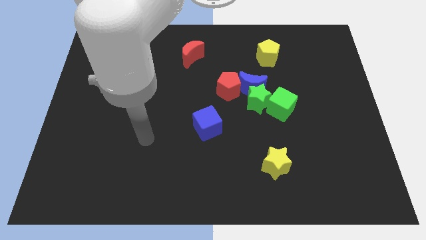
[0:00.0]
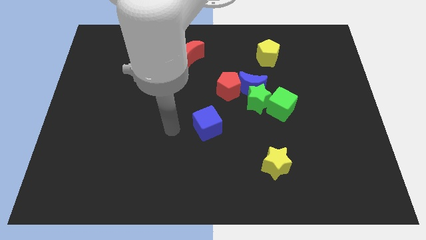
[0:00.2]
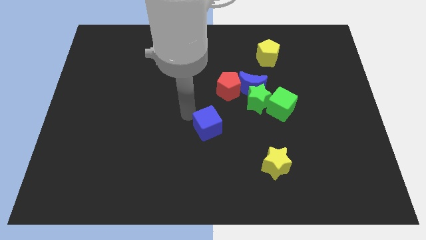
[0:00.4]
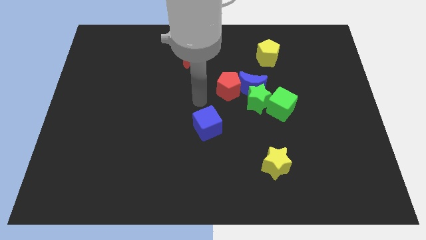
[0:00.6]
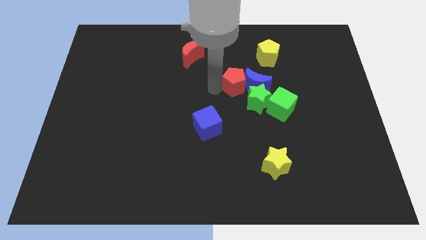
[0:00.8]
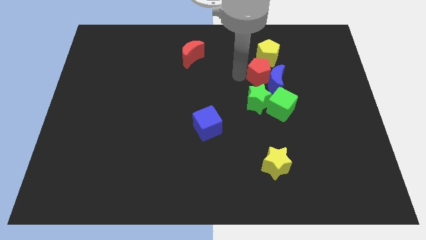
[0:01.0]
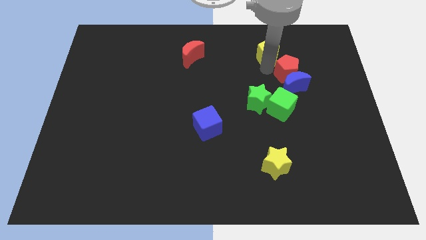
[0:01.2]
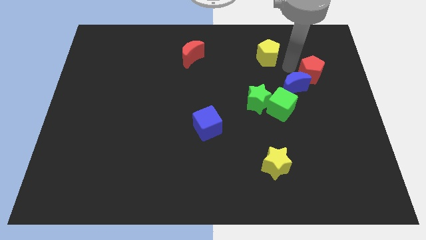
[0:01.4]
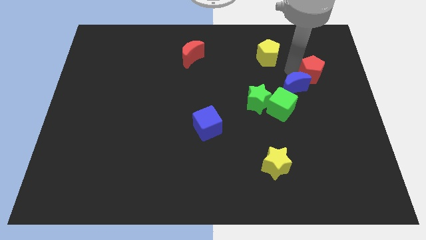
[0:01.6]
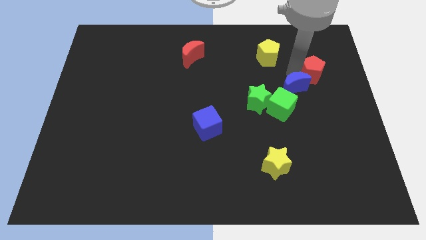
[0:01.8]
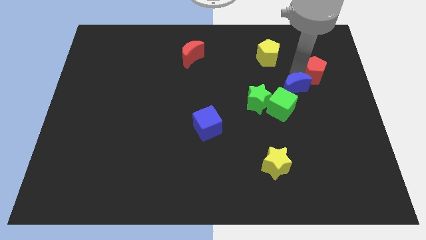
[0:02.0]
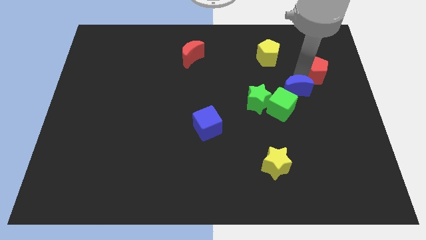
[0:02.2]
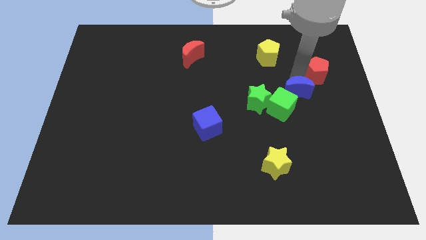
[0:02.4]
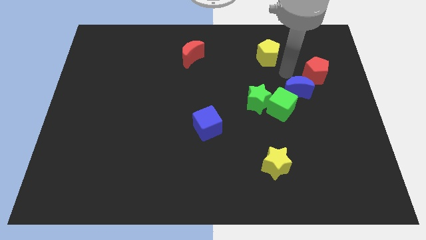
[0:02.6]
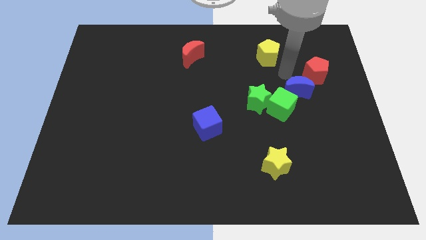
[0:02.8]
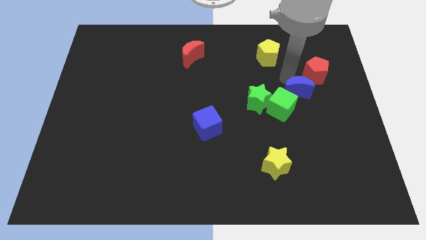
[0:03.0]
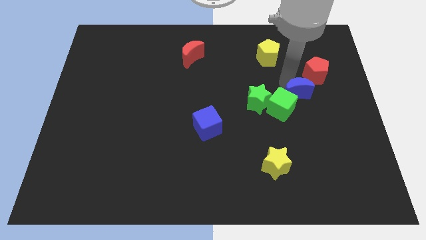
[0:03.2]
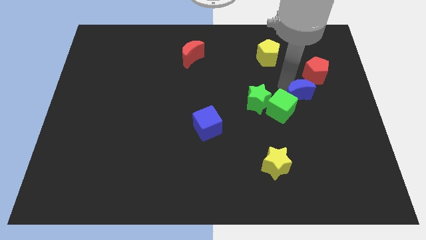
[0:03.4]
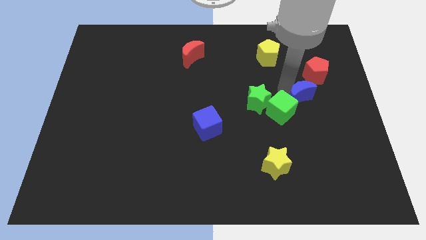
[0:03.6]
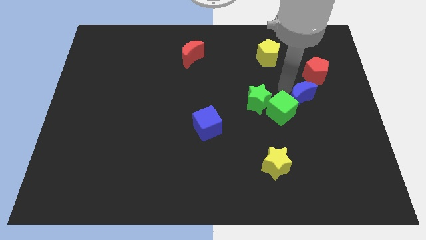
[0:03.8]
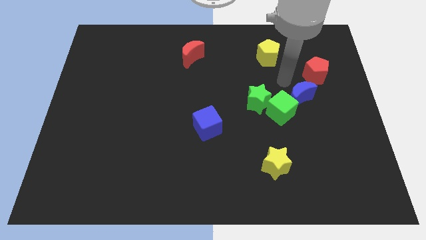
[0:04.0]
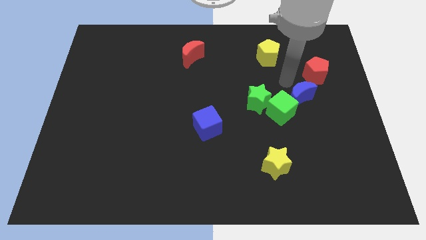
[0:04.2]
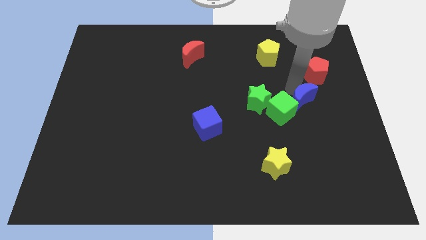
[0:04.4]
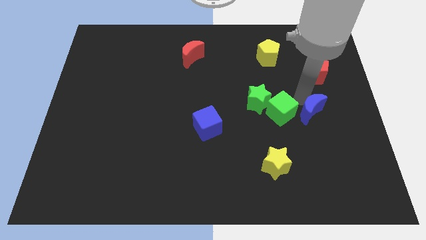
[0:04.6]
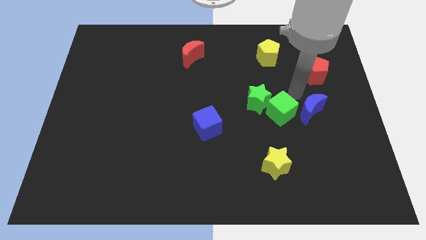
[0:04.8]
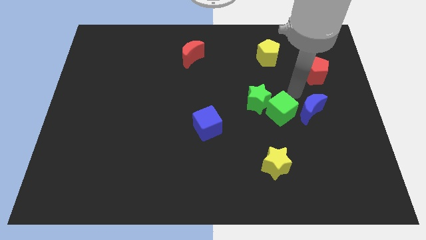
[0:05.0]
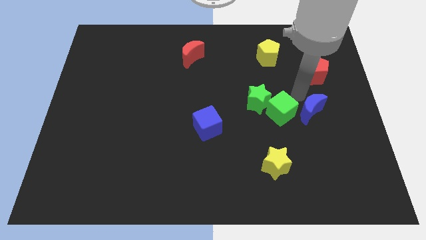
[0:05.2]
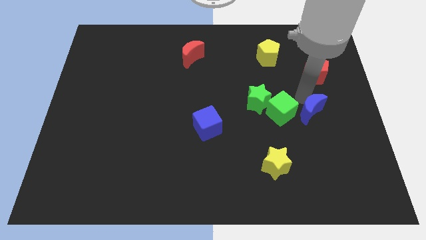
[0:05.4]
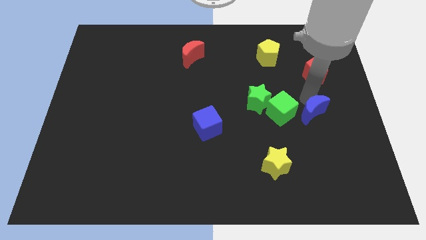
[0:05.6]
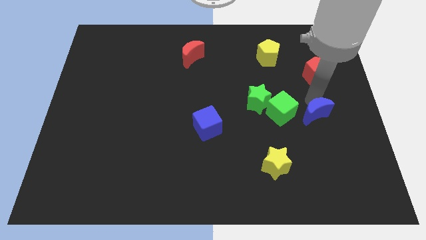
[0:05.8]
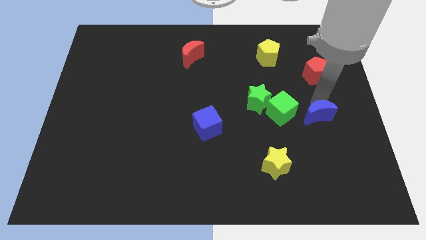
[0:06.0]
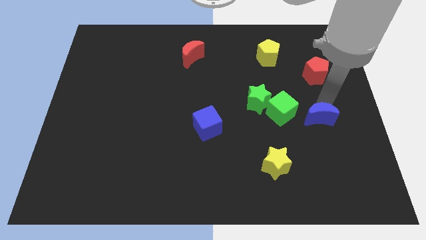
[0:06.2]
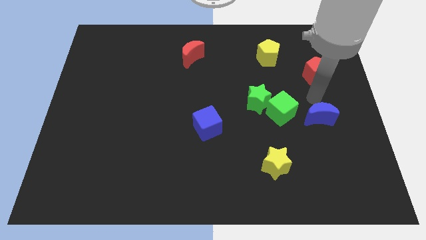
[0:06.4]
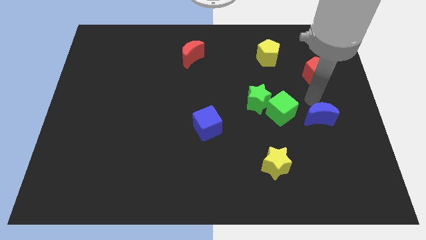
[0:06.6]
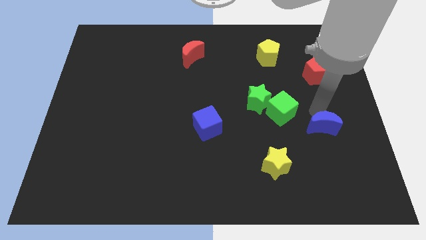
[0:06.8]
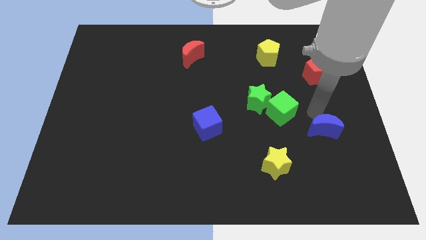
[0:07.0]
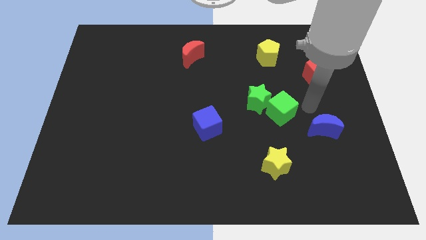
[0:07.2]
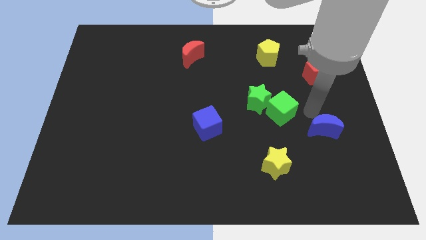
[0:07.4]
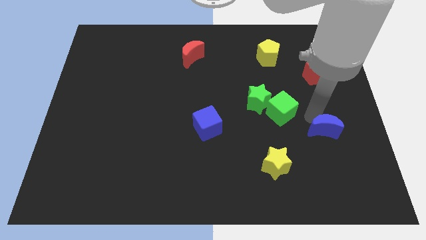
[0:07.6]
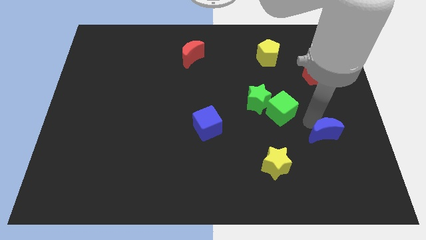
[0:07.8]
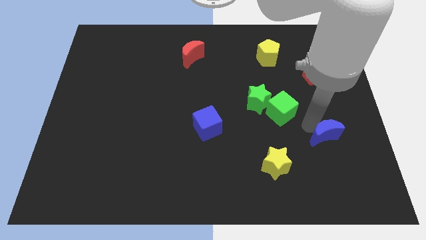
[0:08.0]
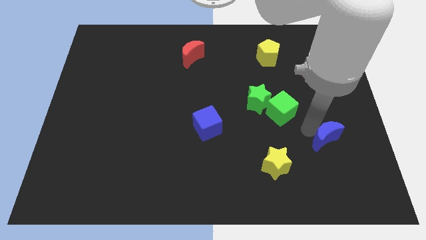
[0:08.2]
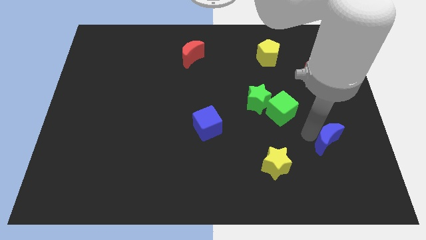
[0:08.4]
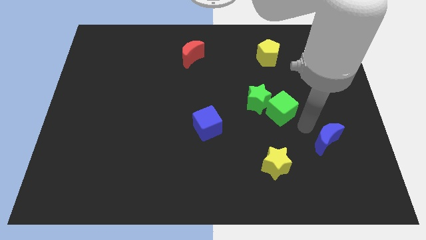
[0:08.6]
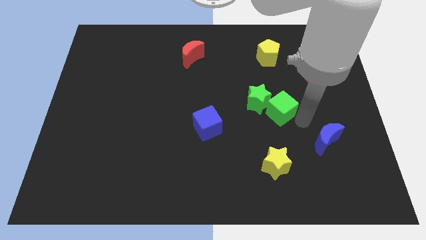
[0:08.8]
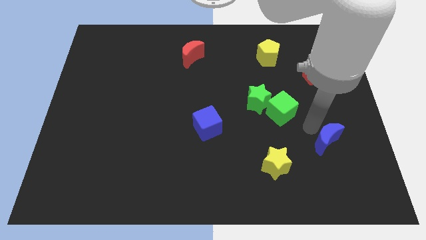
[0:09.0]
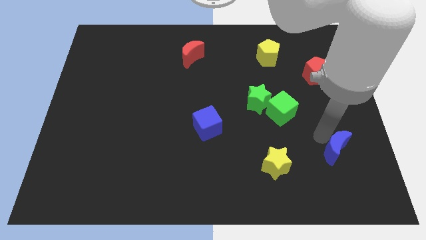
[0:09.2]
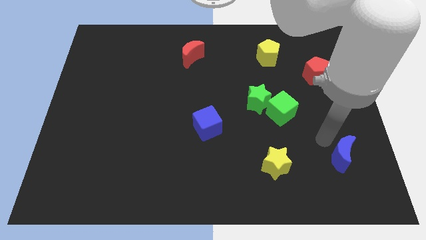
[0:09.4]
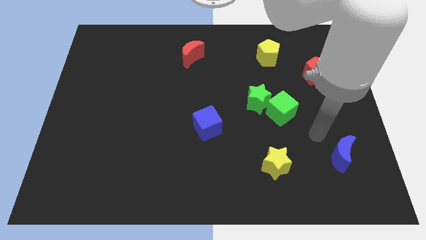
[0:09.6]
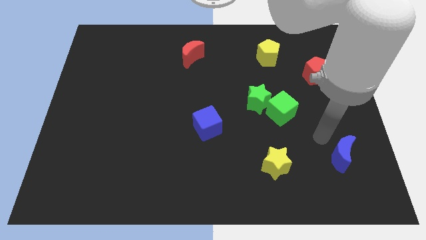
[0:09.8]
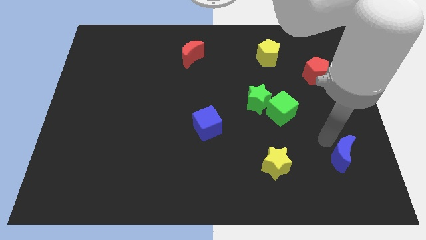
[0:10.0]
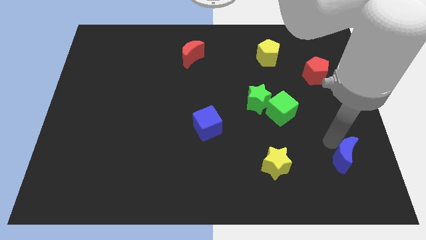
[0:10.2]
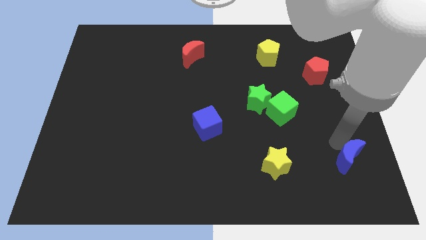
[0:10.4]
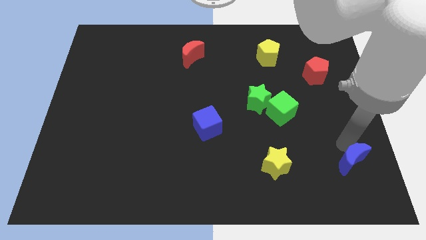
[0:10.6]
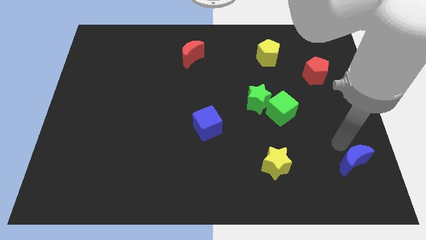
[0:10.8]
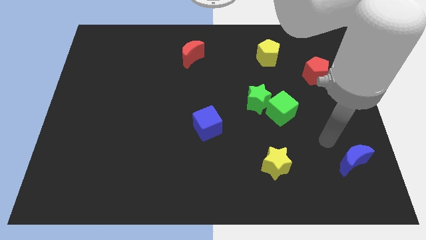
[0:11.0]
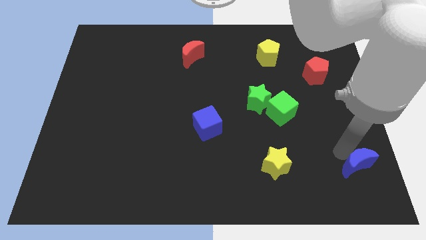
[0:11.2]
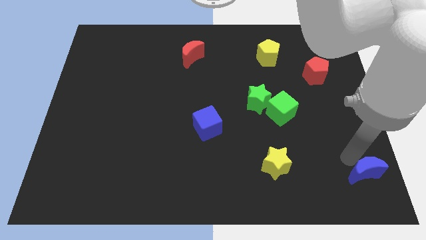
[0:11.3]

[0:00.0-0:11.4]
push the blue moon to the bottom right of the board
